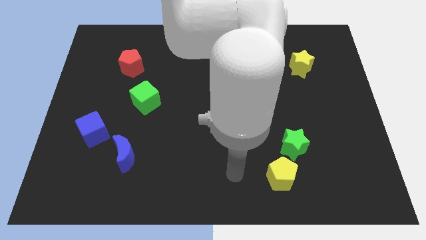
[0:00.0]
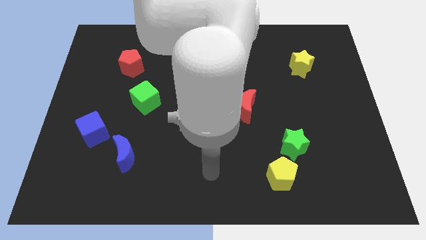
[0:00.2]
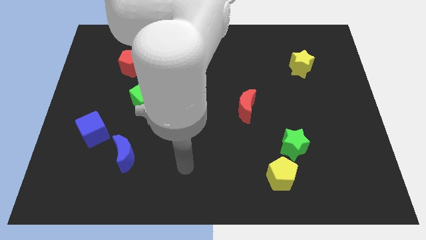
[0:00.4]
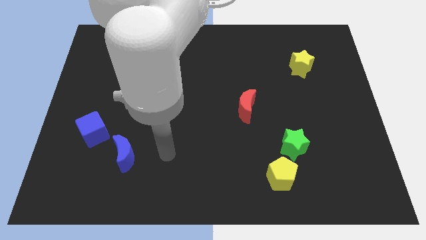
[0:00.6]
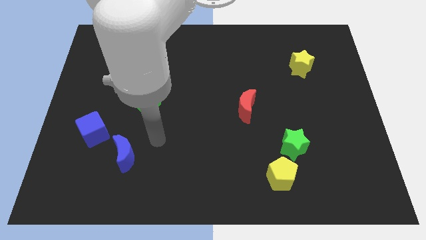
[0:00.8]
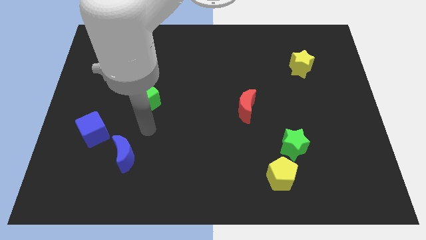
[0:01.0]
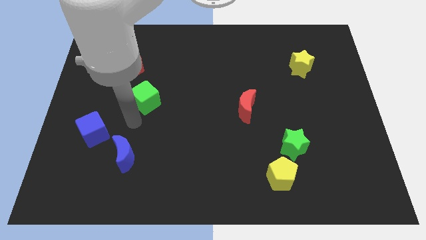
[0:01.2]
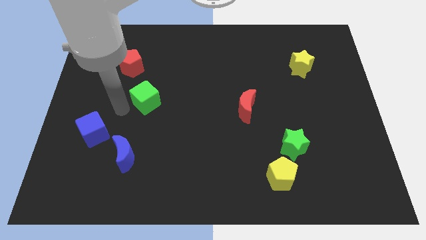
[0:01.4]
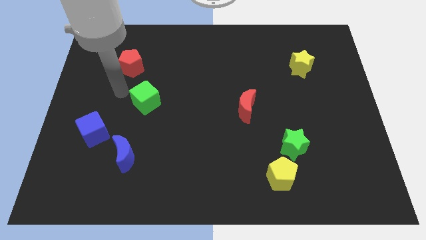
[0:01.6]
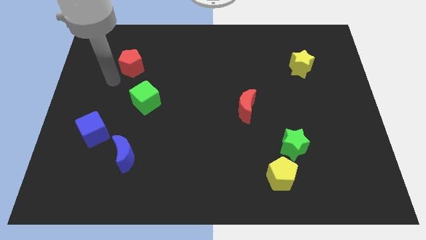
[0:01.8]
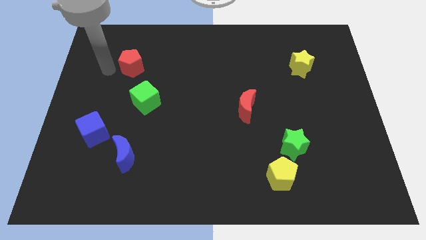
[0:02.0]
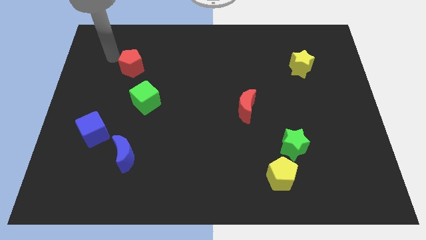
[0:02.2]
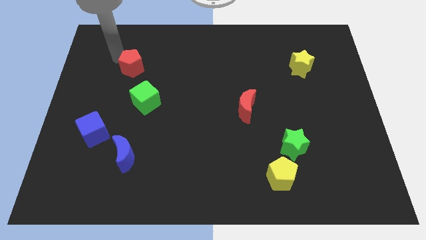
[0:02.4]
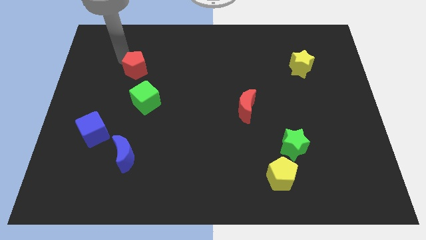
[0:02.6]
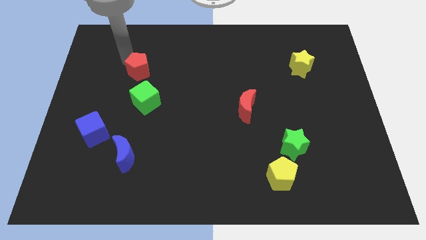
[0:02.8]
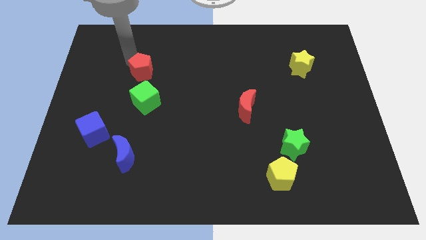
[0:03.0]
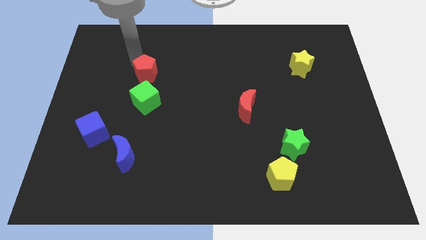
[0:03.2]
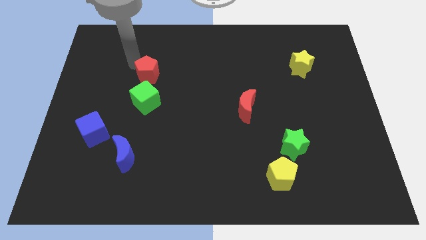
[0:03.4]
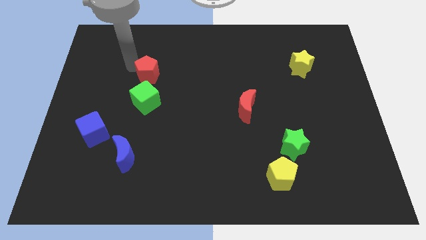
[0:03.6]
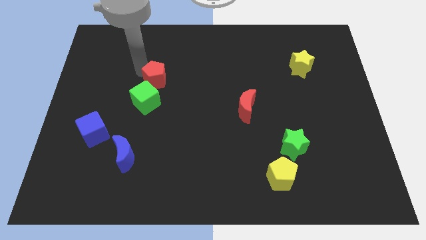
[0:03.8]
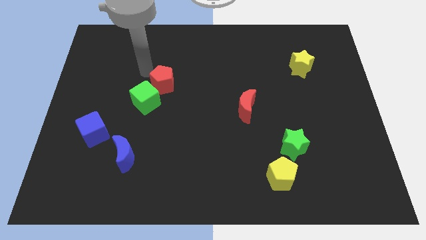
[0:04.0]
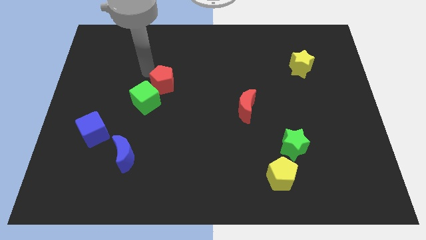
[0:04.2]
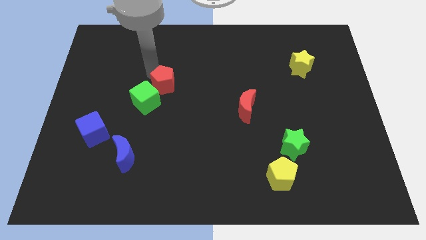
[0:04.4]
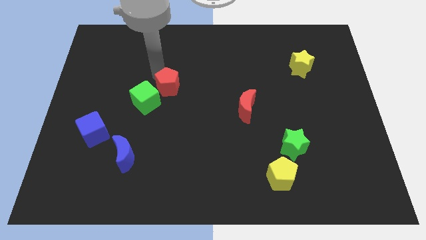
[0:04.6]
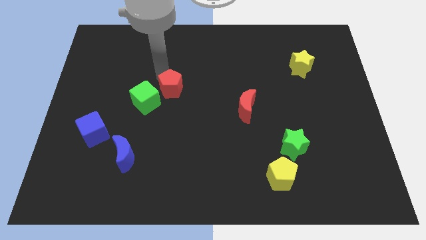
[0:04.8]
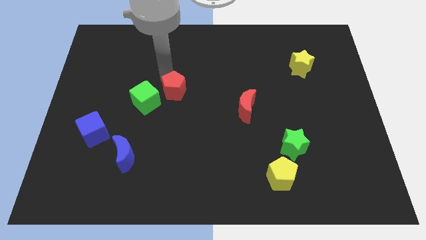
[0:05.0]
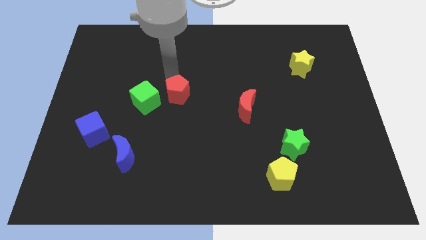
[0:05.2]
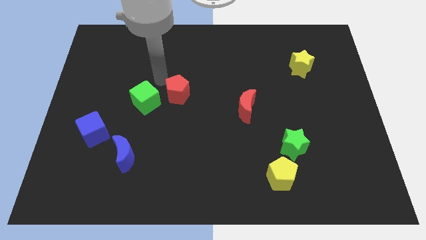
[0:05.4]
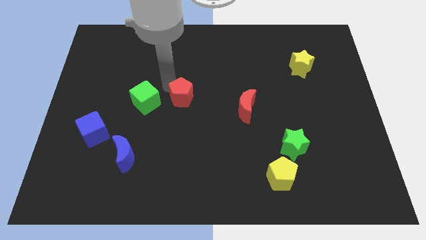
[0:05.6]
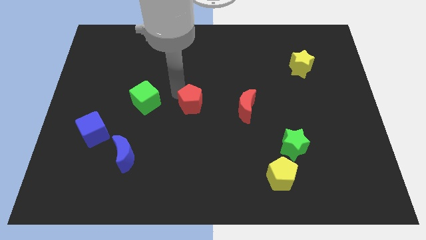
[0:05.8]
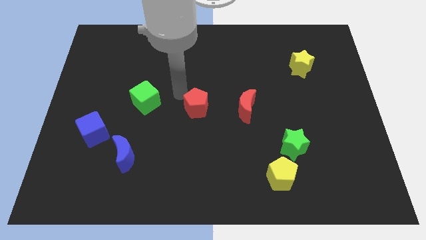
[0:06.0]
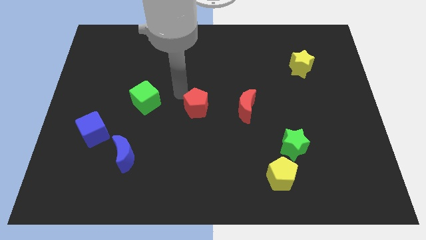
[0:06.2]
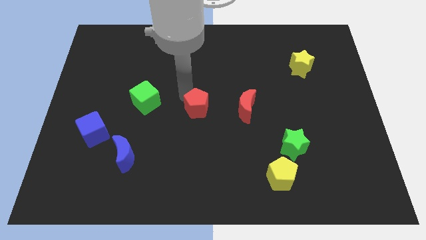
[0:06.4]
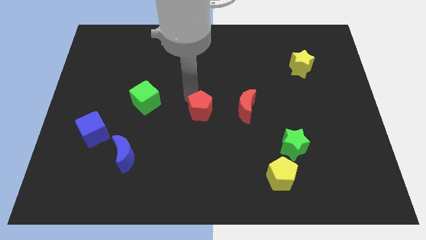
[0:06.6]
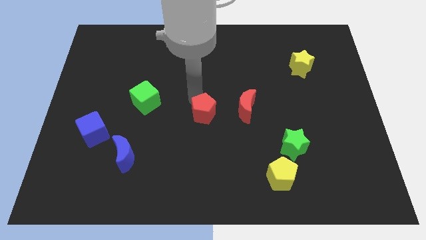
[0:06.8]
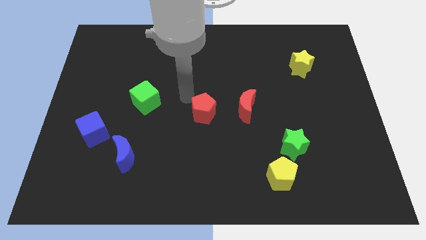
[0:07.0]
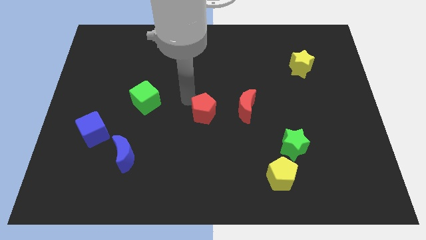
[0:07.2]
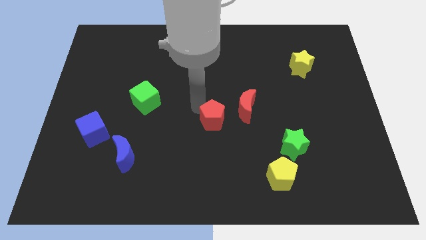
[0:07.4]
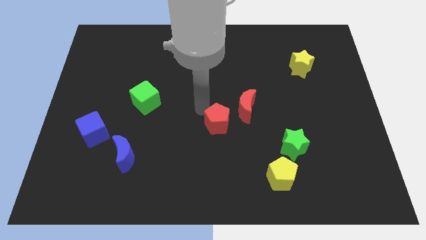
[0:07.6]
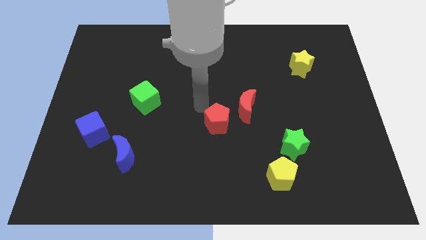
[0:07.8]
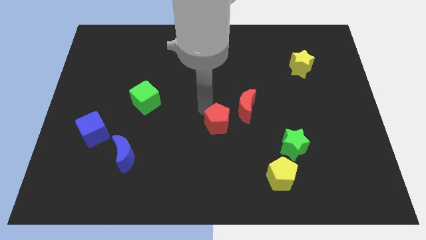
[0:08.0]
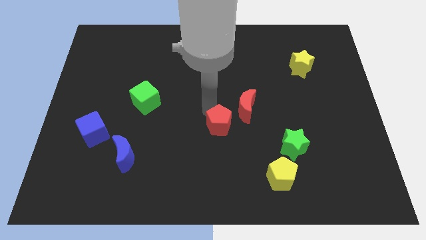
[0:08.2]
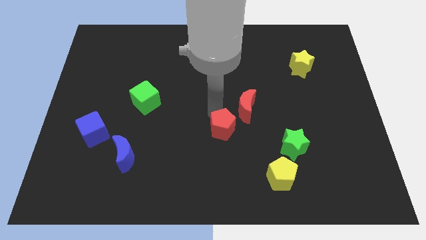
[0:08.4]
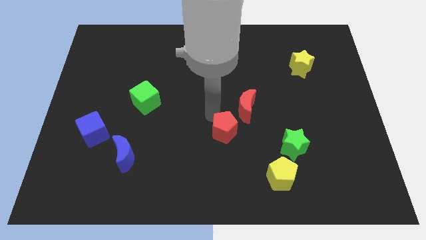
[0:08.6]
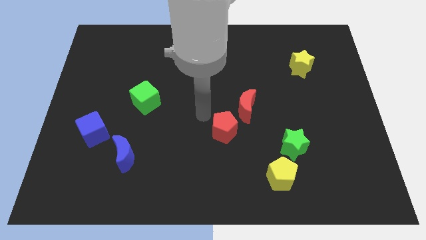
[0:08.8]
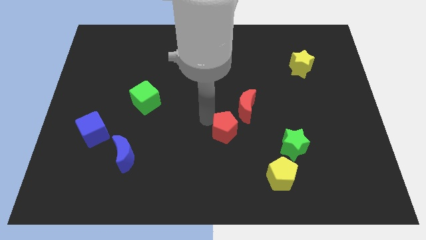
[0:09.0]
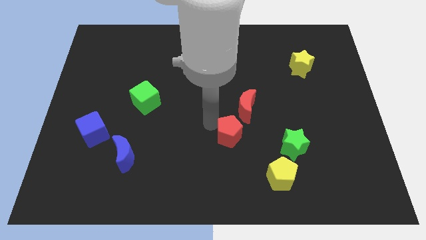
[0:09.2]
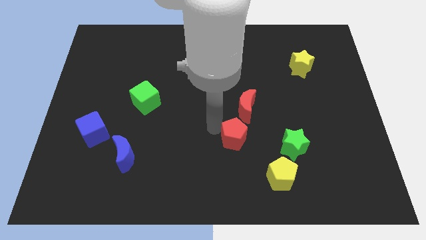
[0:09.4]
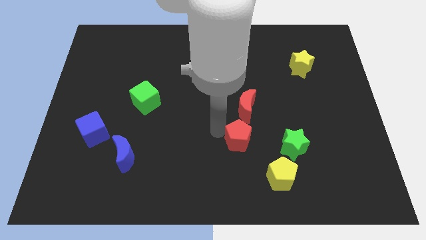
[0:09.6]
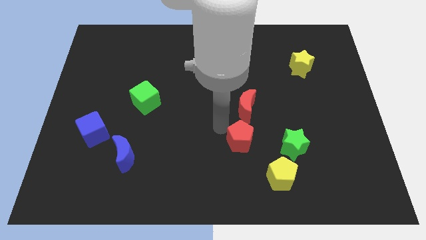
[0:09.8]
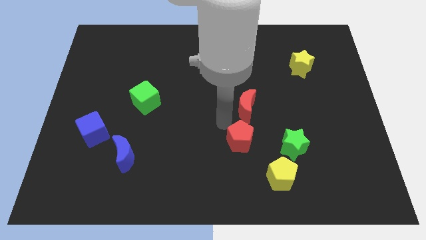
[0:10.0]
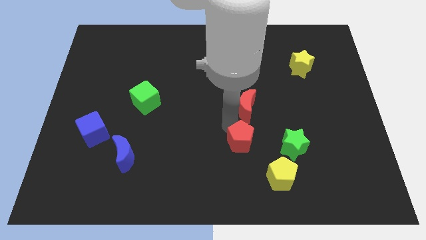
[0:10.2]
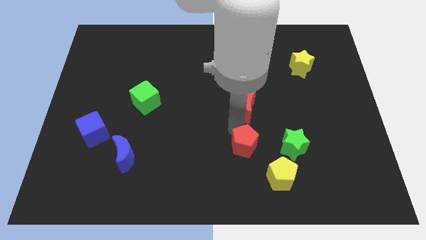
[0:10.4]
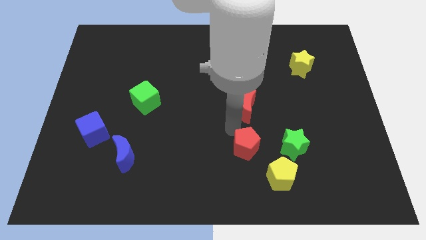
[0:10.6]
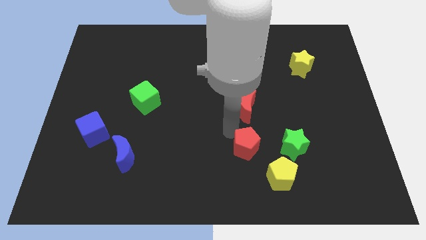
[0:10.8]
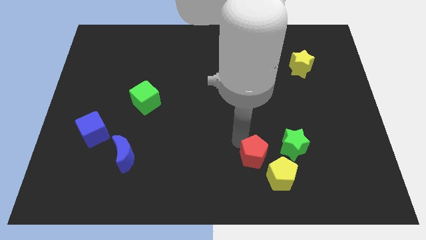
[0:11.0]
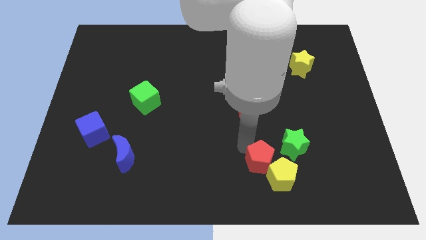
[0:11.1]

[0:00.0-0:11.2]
move the red pentagon close to the yellow pentagon

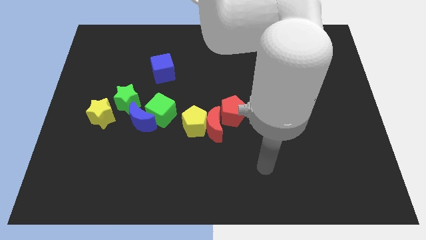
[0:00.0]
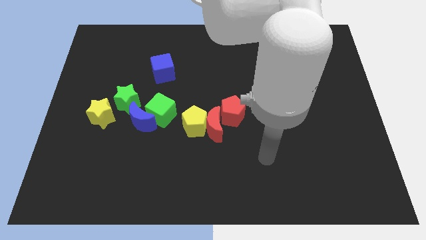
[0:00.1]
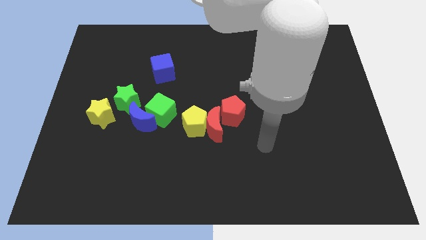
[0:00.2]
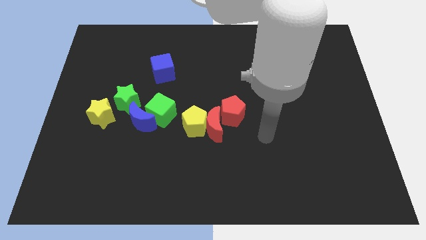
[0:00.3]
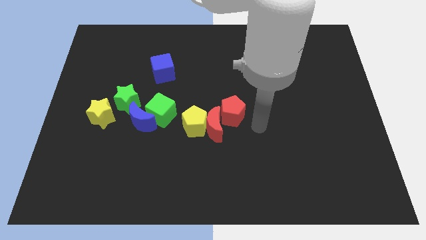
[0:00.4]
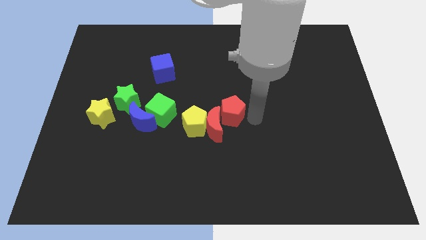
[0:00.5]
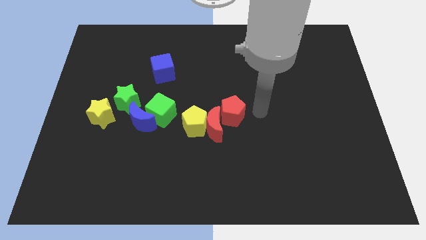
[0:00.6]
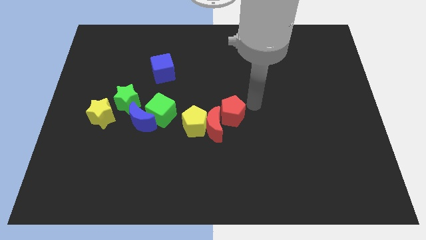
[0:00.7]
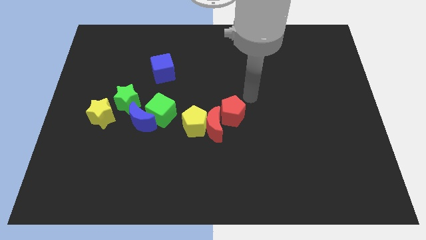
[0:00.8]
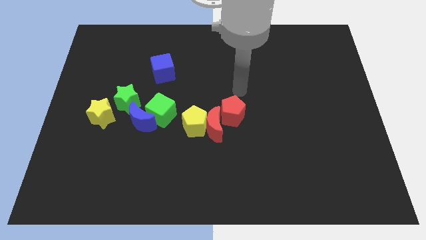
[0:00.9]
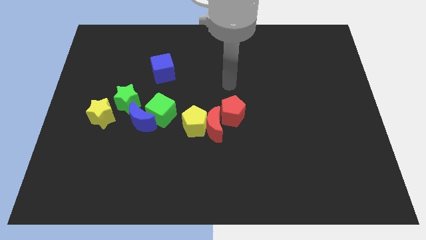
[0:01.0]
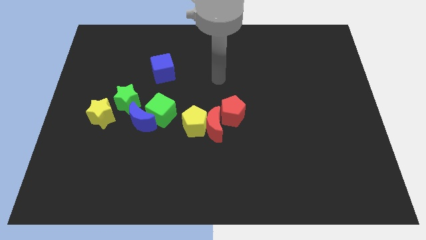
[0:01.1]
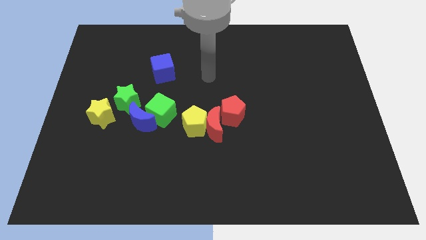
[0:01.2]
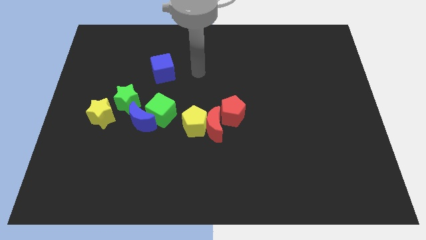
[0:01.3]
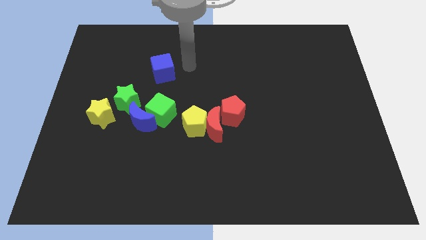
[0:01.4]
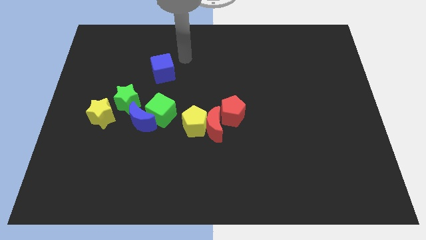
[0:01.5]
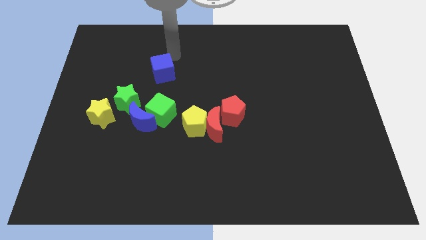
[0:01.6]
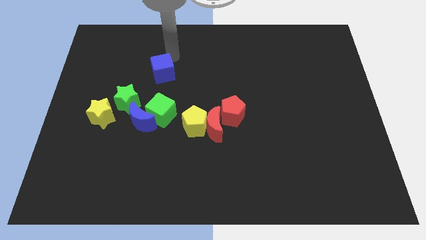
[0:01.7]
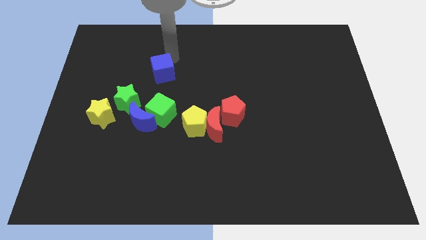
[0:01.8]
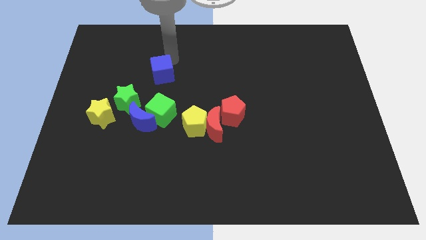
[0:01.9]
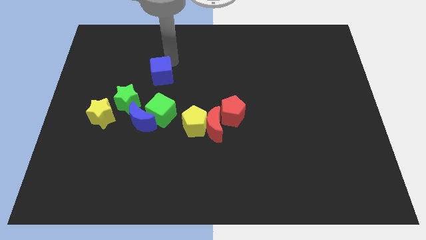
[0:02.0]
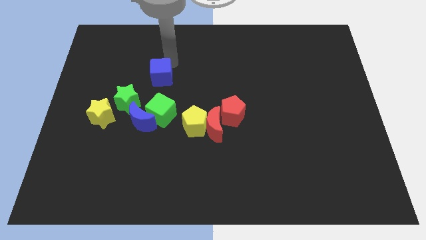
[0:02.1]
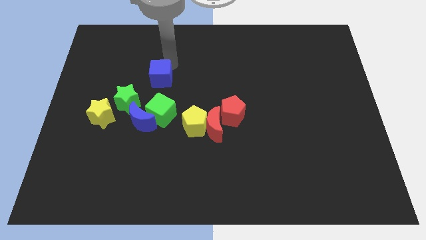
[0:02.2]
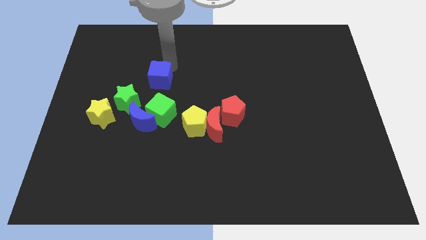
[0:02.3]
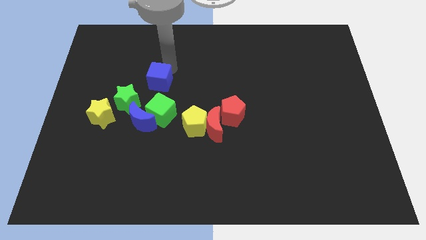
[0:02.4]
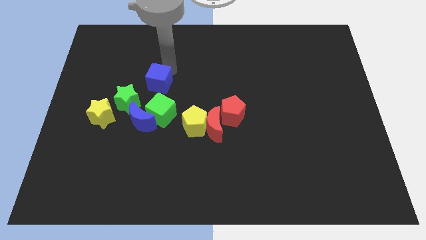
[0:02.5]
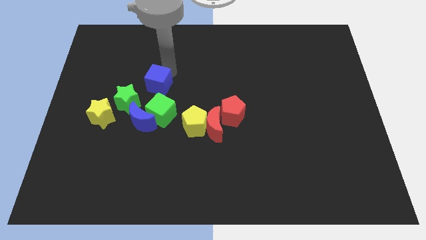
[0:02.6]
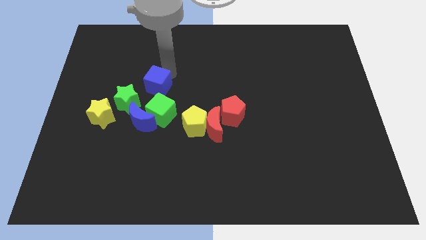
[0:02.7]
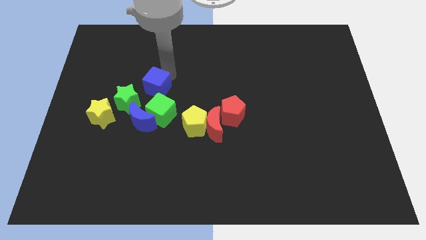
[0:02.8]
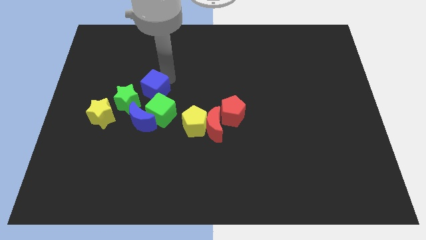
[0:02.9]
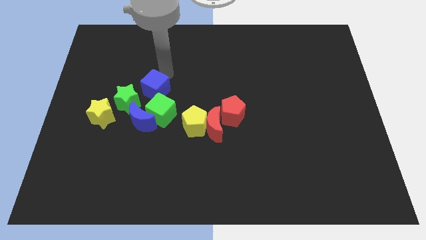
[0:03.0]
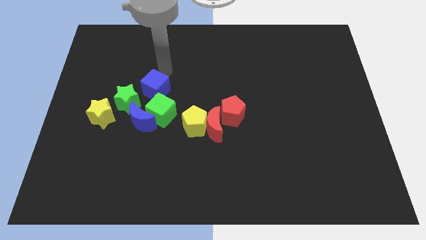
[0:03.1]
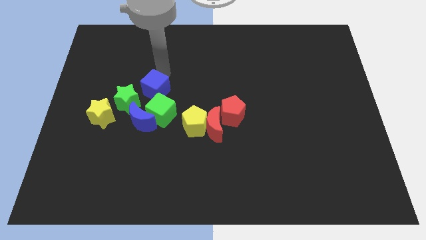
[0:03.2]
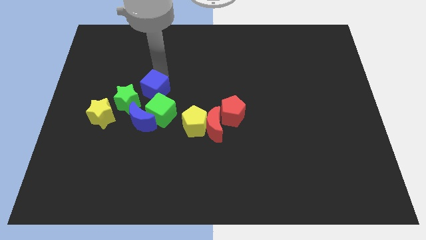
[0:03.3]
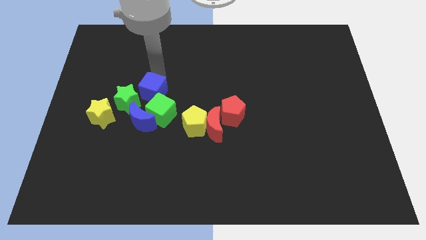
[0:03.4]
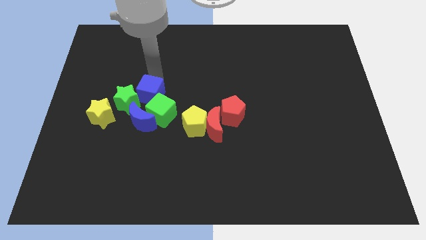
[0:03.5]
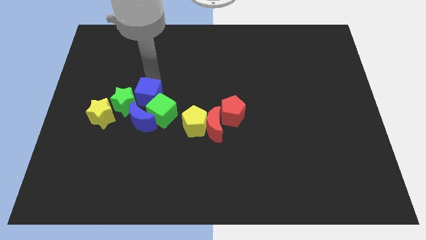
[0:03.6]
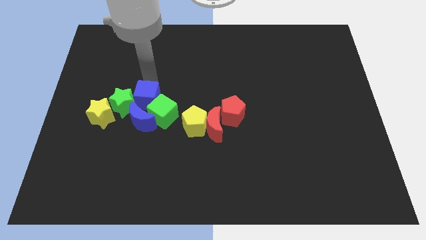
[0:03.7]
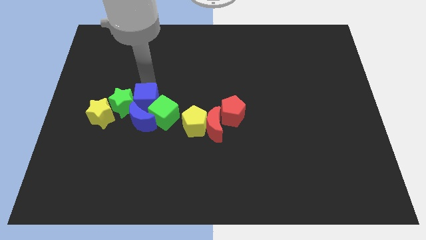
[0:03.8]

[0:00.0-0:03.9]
move the blue cube towards the blue moon
